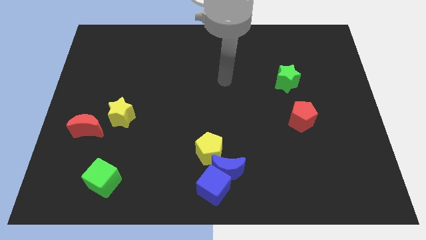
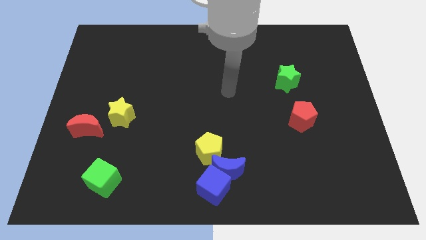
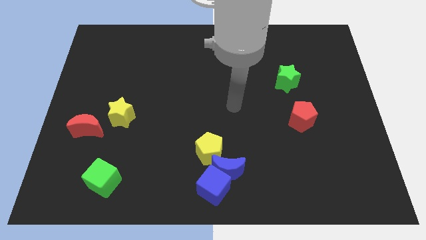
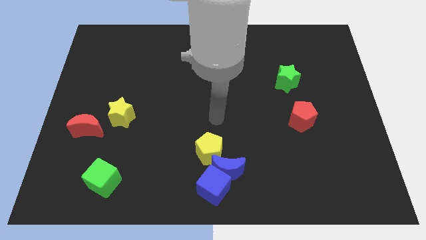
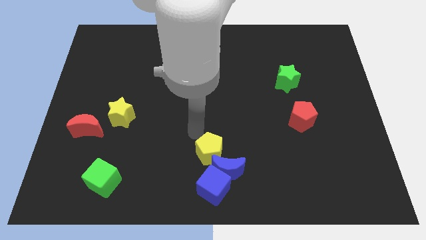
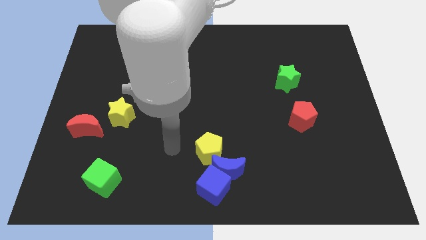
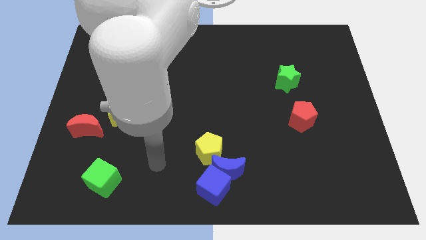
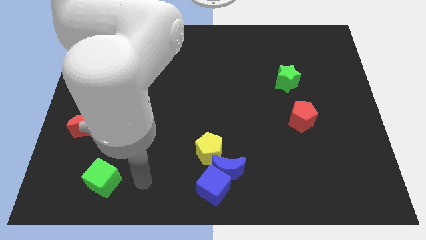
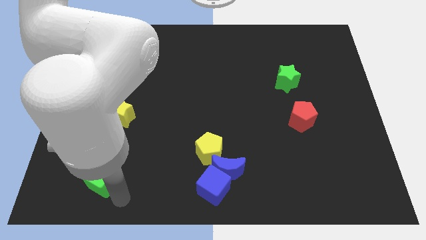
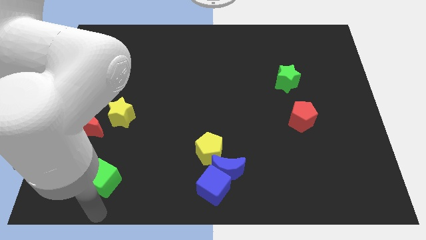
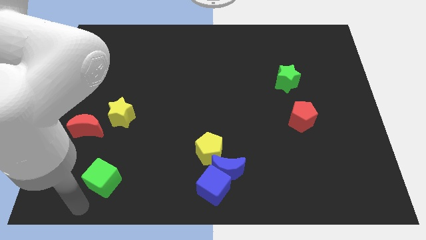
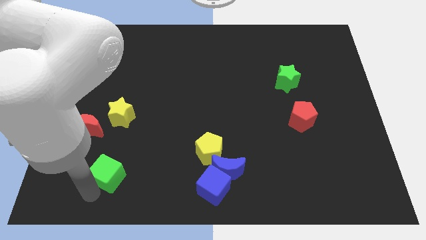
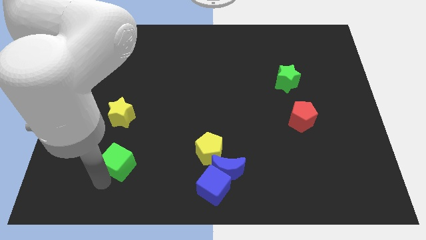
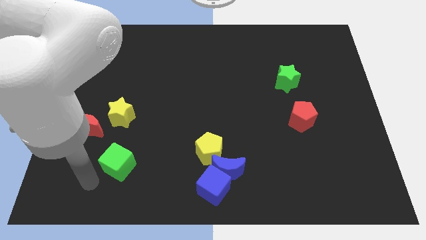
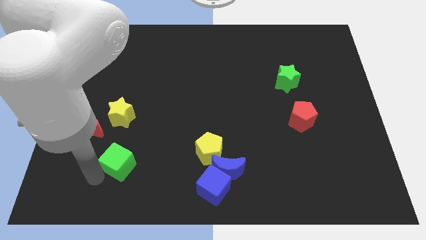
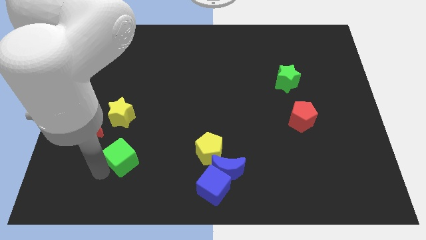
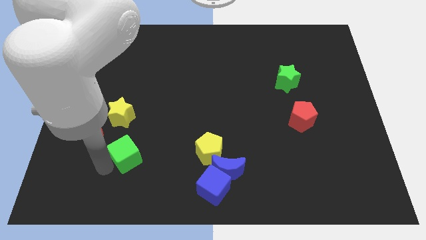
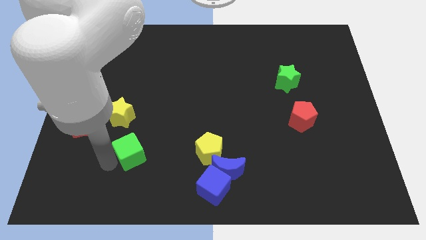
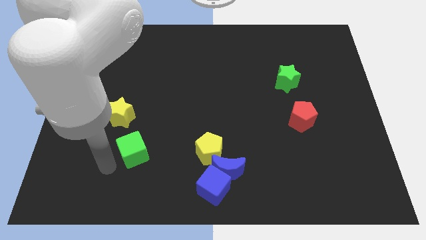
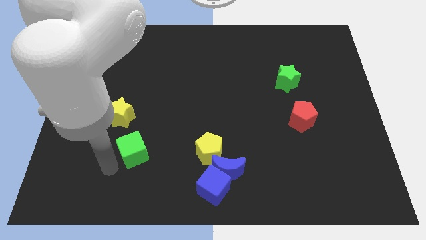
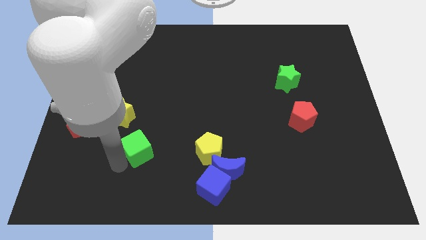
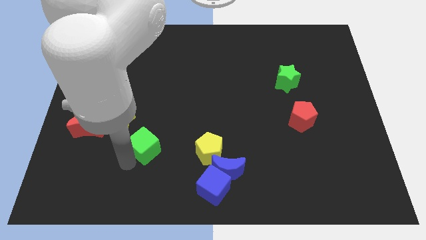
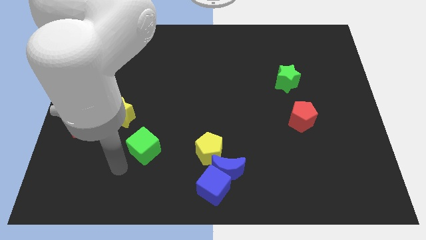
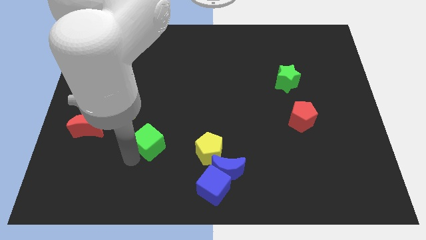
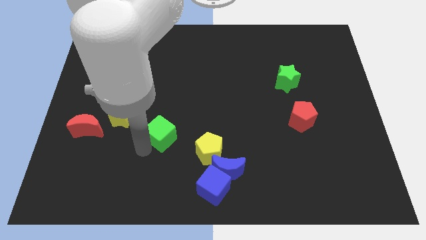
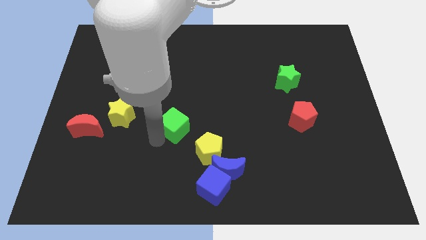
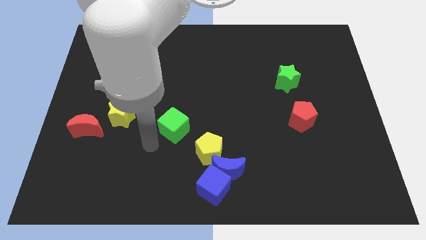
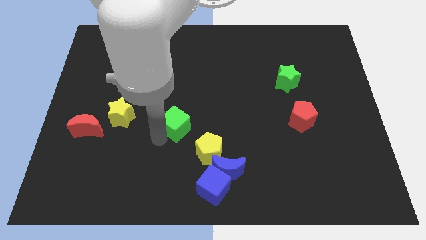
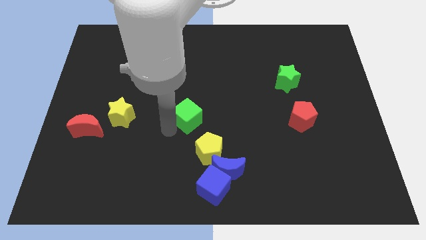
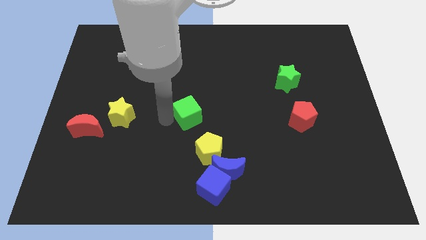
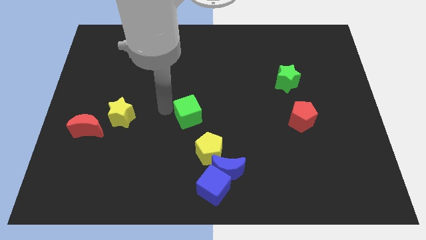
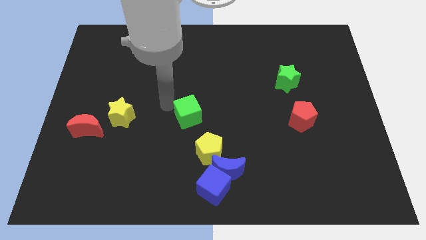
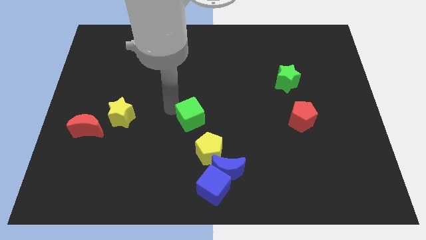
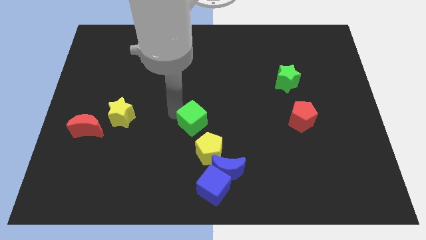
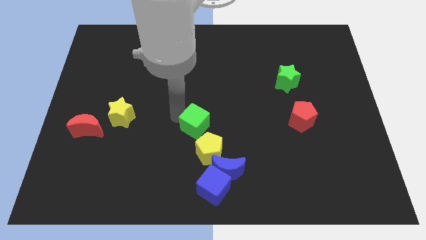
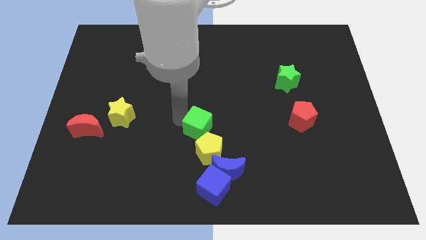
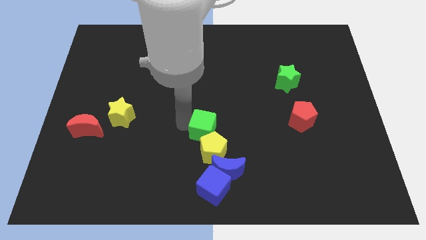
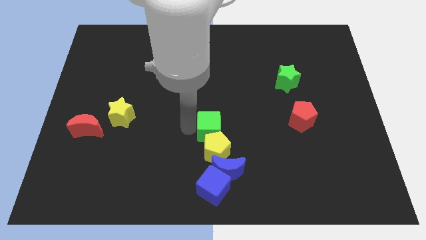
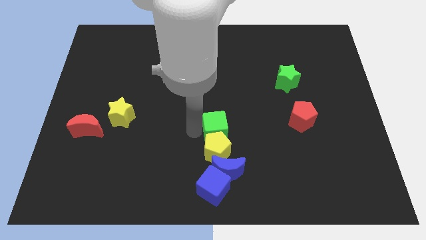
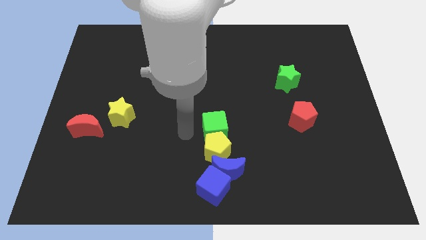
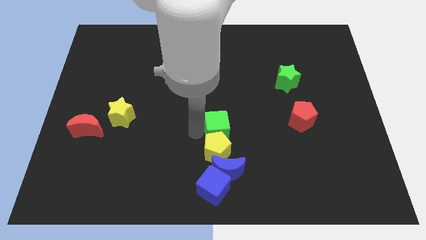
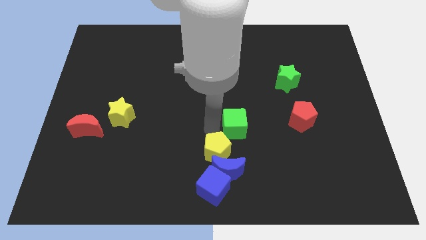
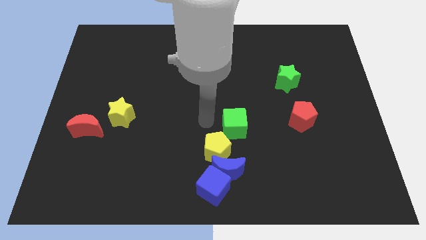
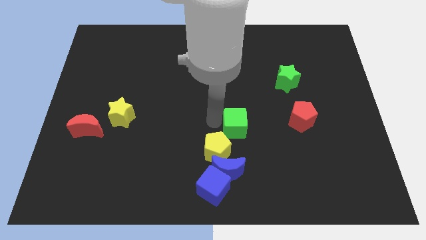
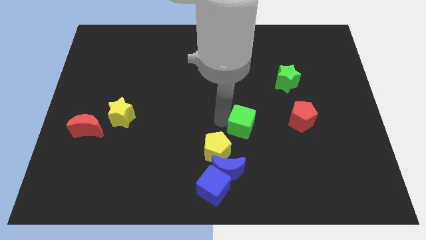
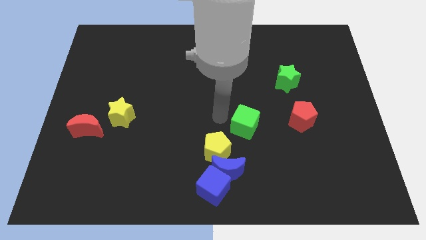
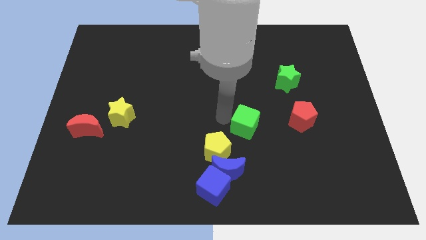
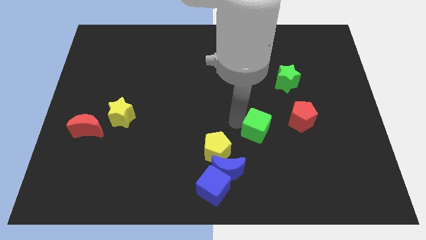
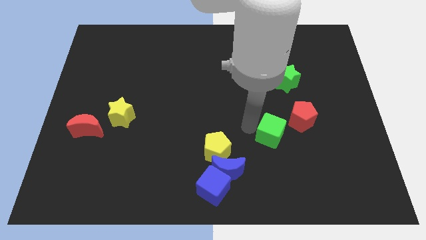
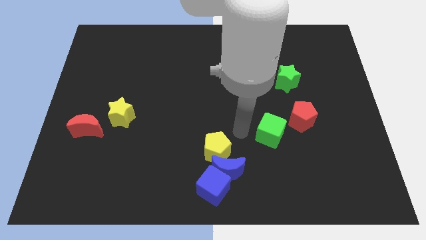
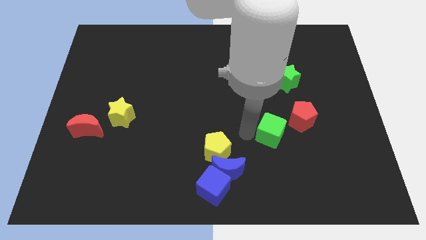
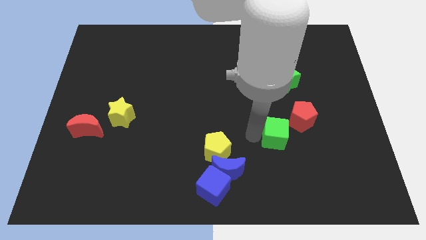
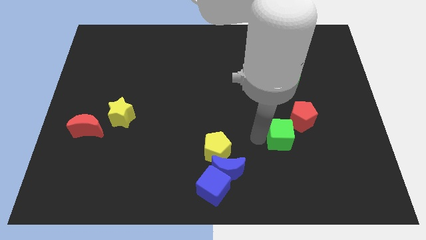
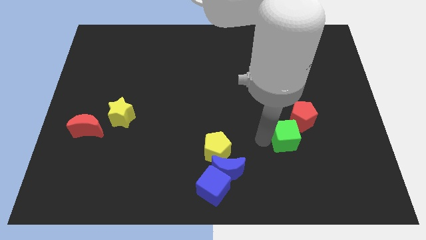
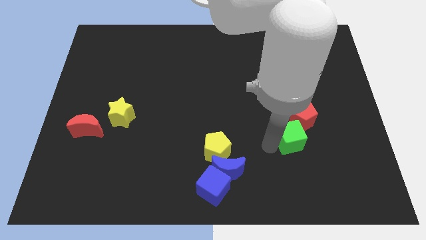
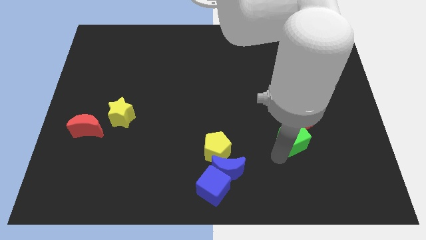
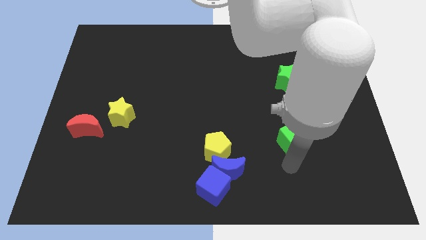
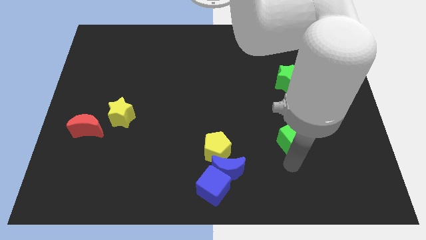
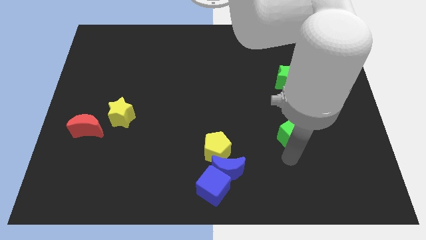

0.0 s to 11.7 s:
slide the green cube to the bottom of the green star

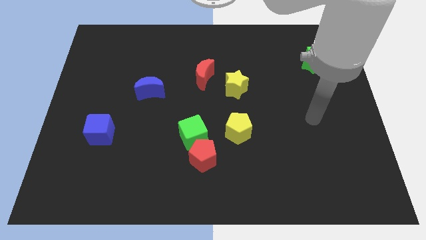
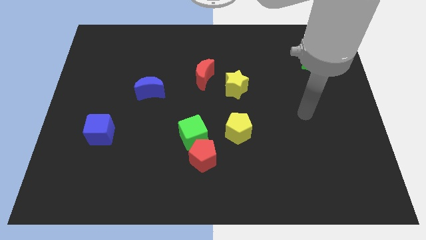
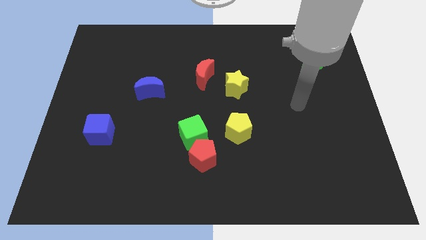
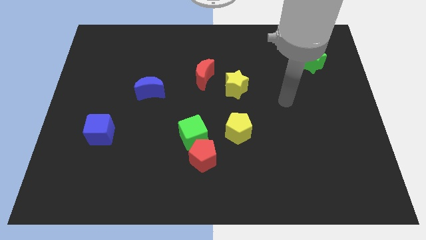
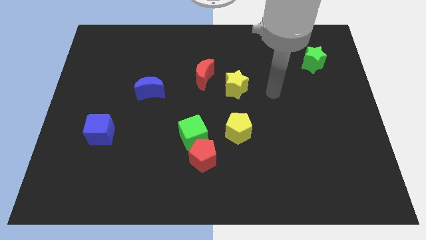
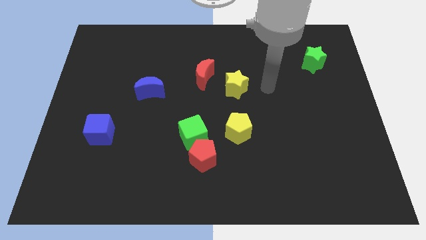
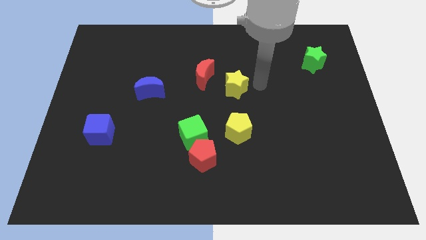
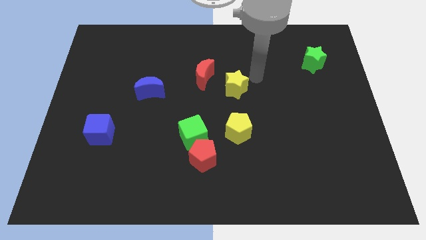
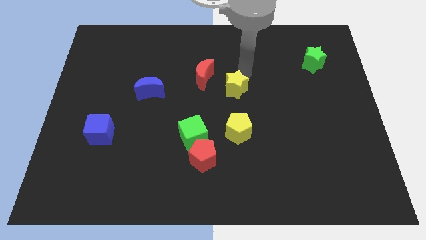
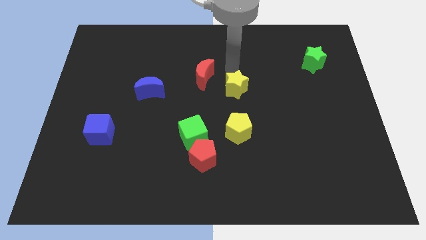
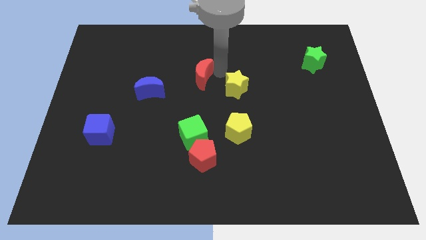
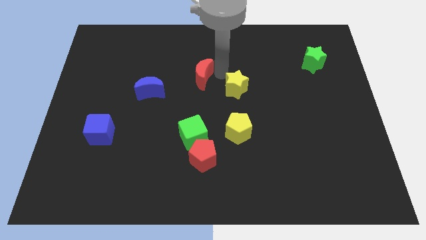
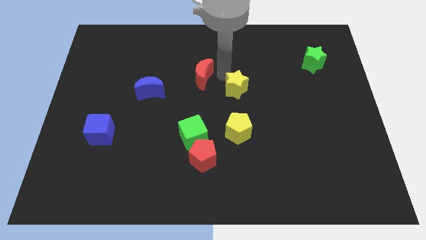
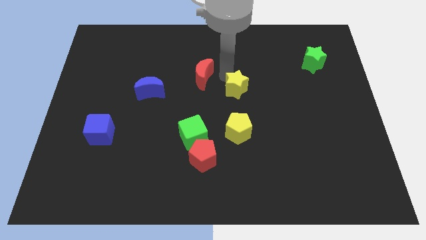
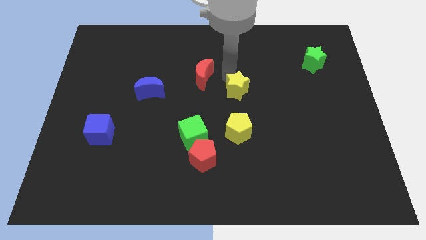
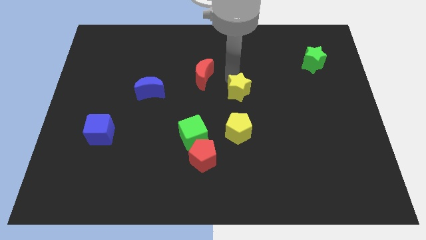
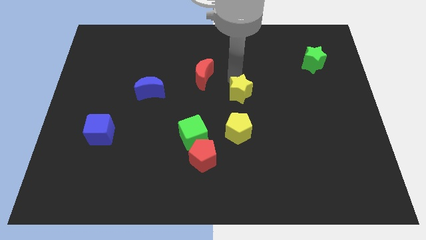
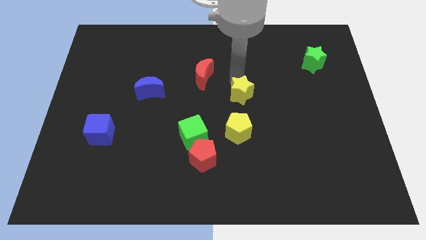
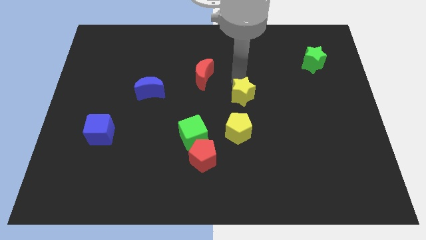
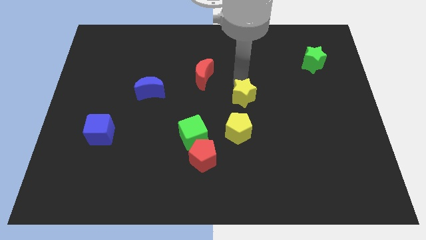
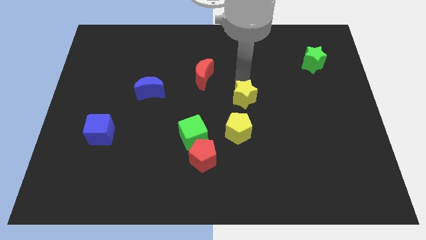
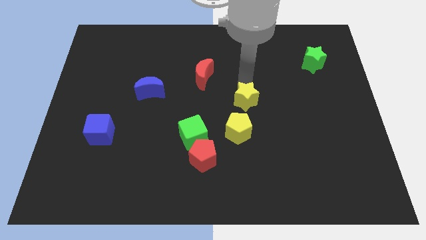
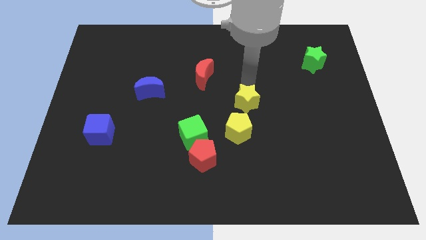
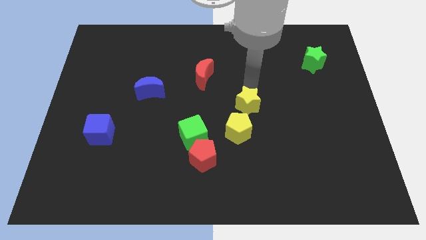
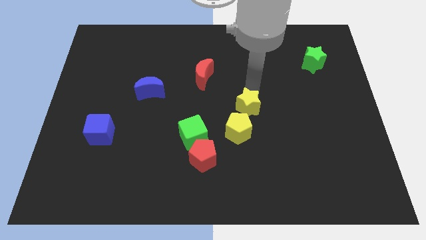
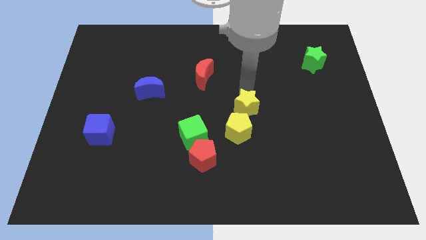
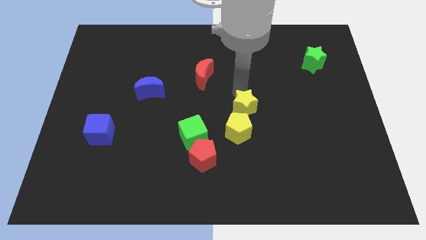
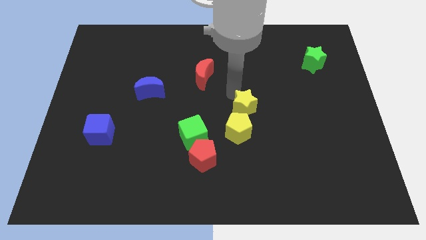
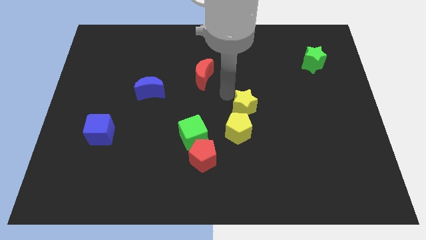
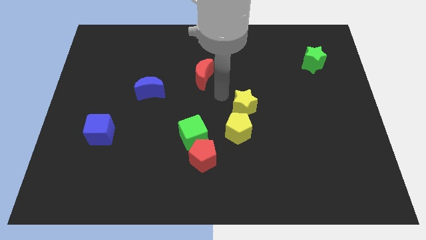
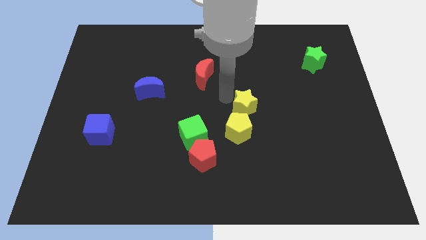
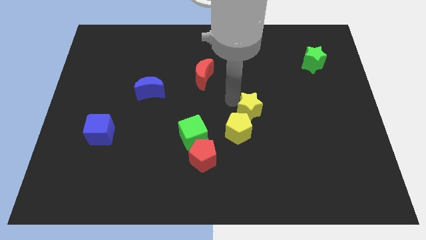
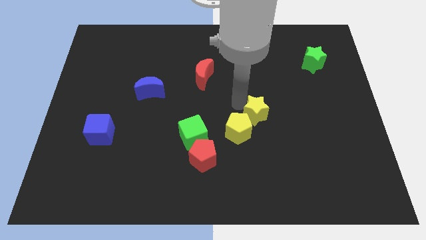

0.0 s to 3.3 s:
push the yellow star to the right of the yellow pentagon
